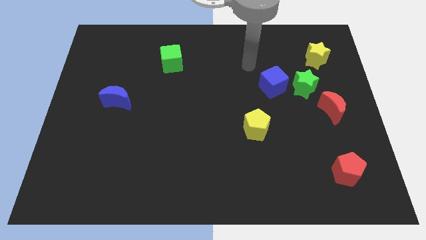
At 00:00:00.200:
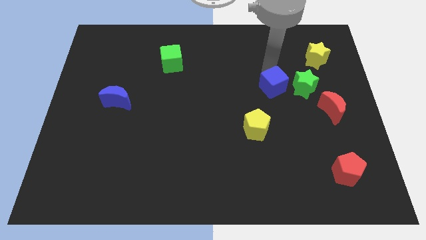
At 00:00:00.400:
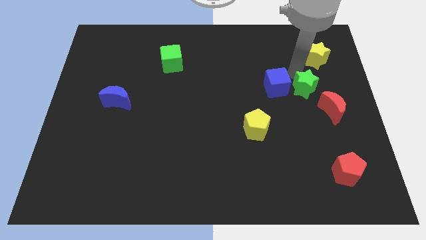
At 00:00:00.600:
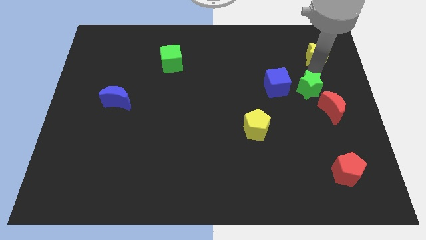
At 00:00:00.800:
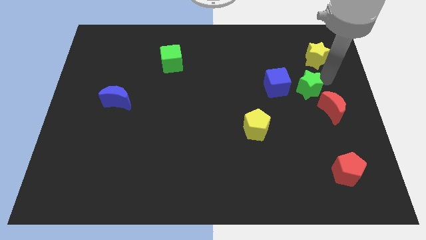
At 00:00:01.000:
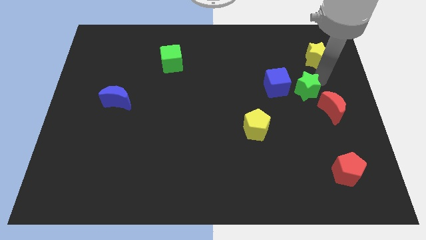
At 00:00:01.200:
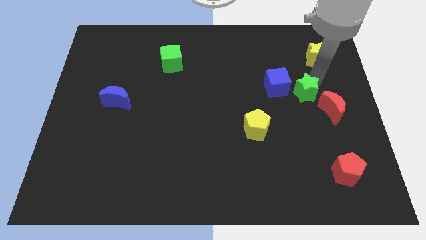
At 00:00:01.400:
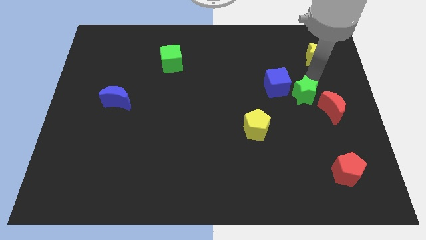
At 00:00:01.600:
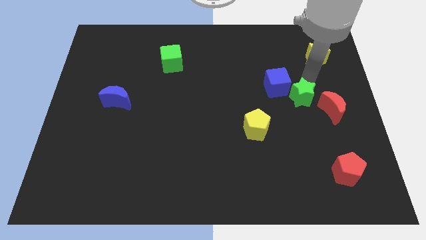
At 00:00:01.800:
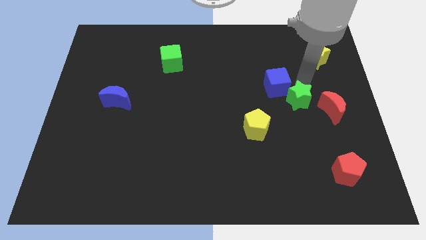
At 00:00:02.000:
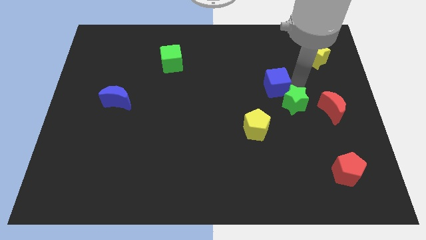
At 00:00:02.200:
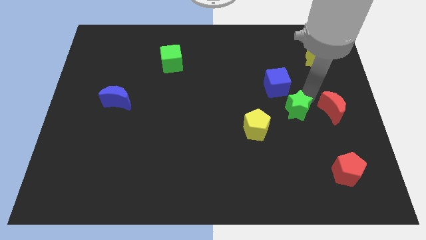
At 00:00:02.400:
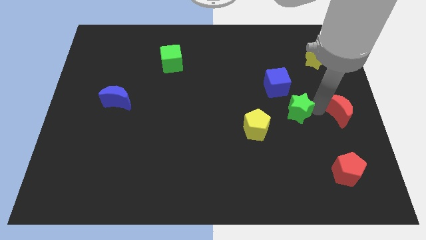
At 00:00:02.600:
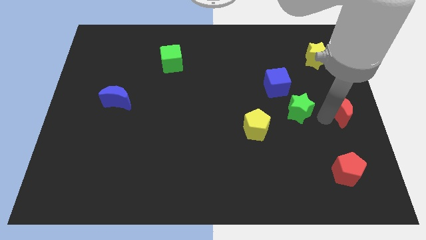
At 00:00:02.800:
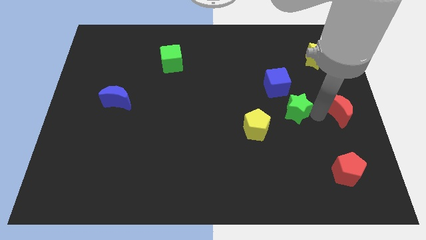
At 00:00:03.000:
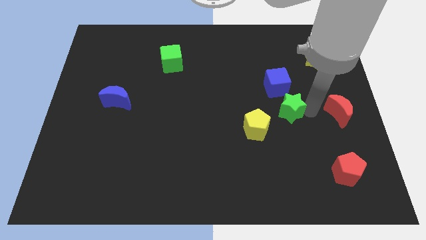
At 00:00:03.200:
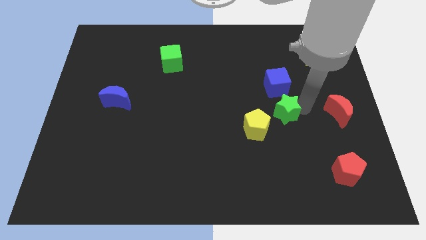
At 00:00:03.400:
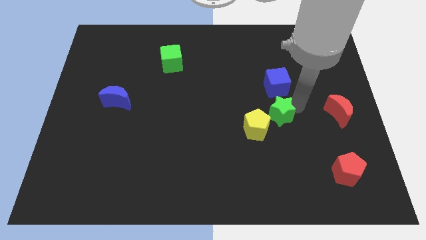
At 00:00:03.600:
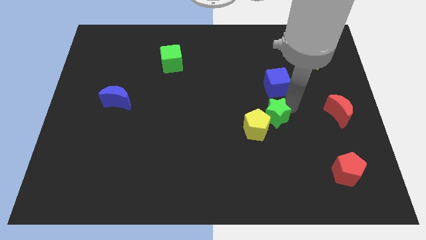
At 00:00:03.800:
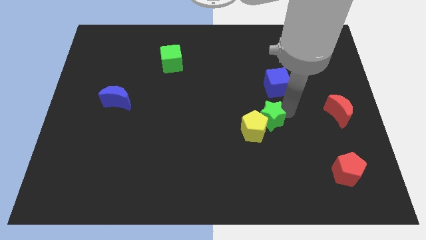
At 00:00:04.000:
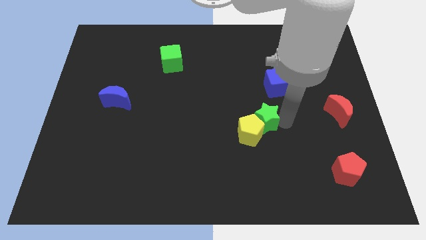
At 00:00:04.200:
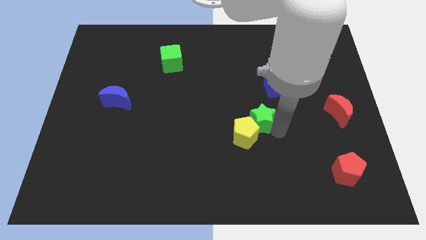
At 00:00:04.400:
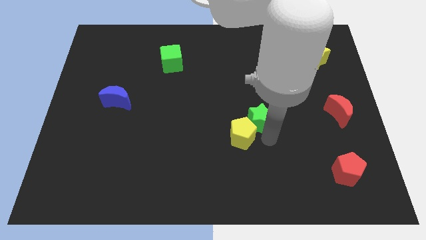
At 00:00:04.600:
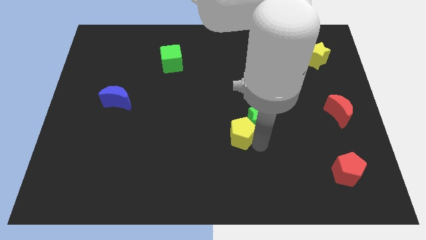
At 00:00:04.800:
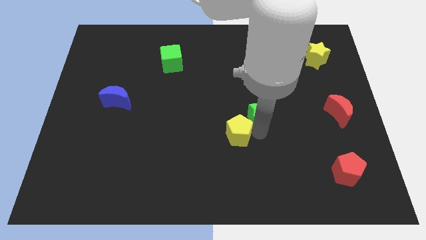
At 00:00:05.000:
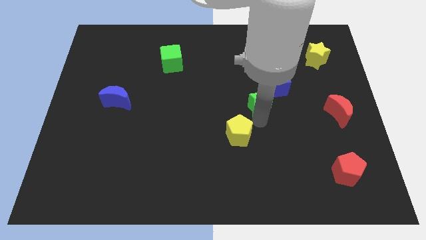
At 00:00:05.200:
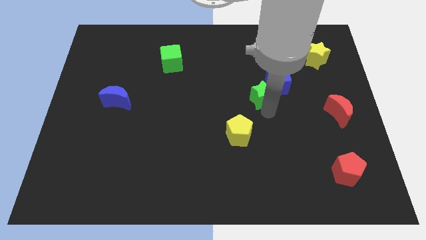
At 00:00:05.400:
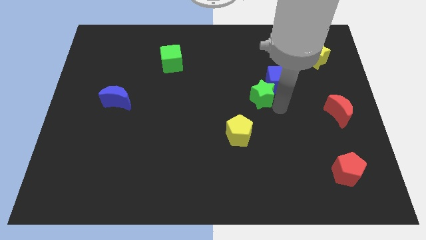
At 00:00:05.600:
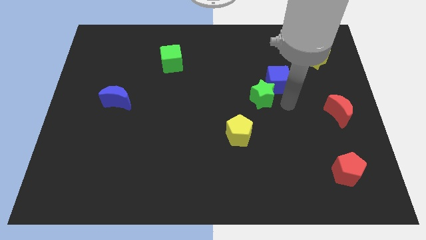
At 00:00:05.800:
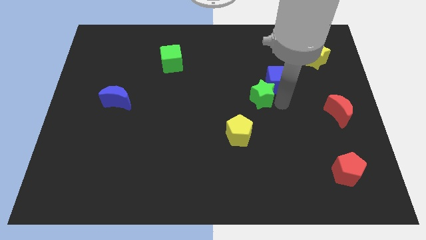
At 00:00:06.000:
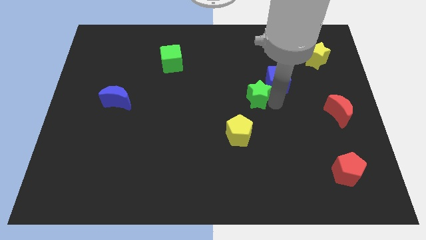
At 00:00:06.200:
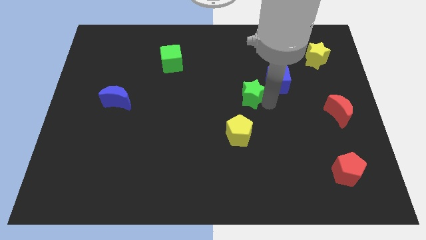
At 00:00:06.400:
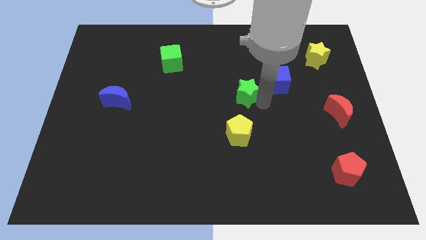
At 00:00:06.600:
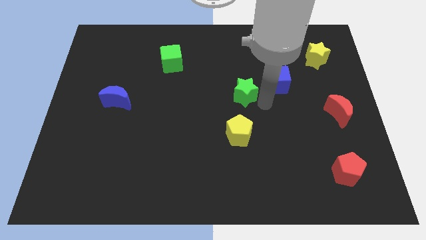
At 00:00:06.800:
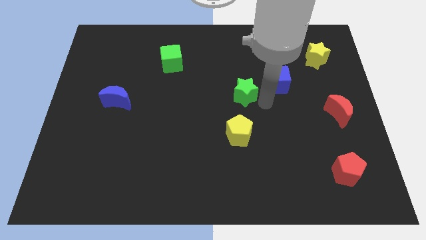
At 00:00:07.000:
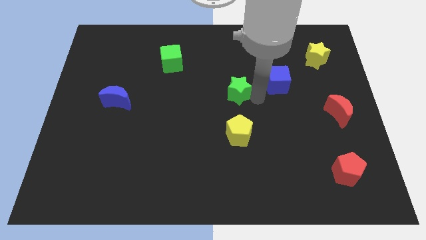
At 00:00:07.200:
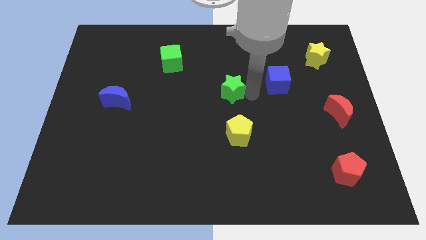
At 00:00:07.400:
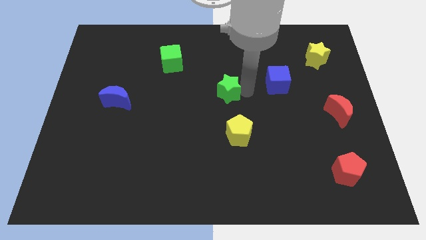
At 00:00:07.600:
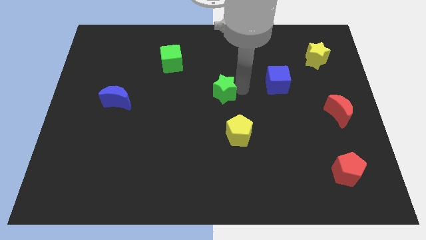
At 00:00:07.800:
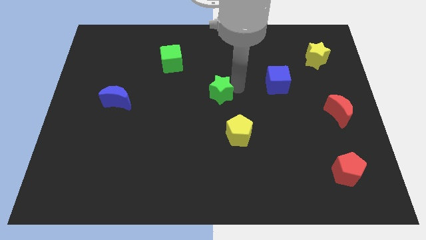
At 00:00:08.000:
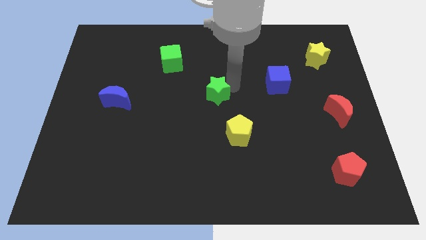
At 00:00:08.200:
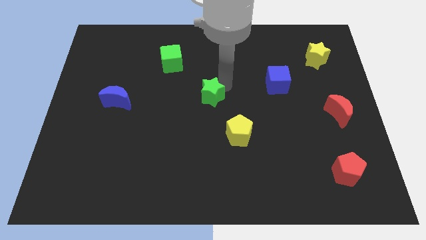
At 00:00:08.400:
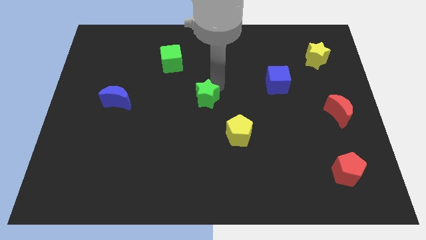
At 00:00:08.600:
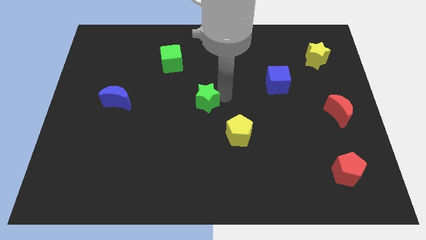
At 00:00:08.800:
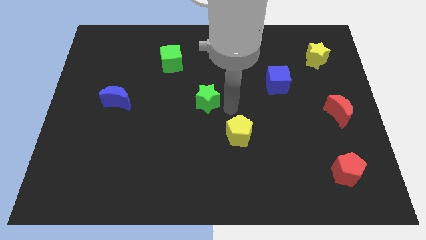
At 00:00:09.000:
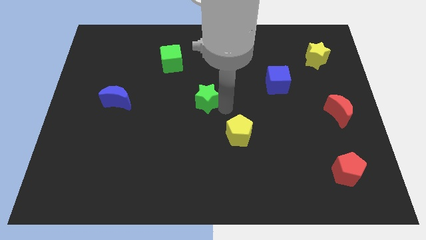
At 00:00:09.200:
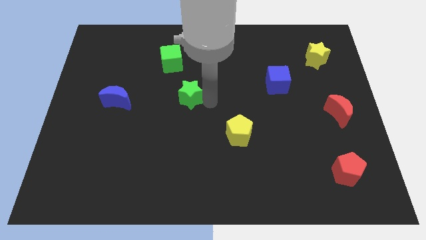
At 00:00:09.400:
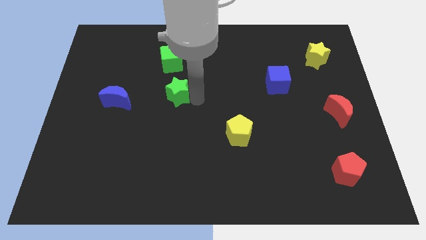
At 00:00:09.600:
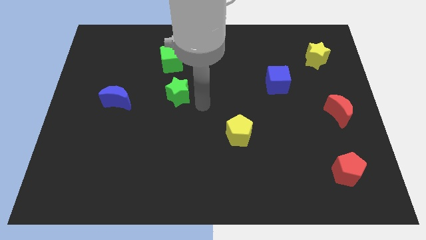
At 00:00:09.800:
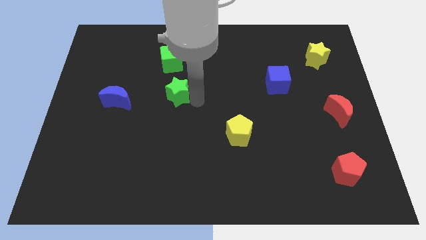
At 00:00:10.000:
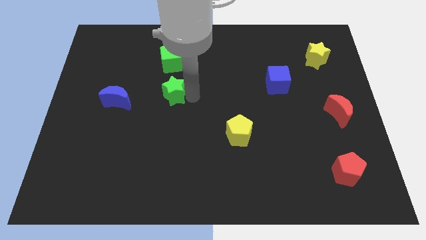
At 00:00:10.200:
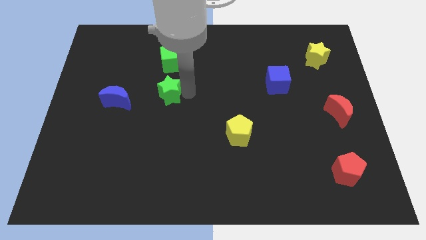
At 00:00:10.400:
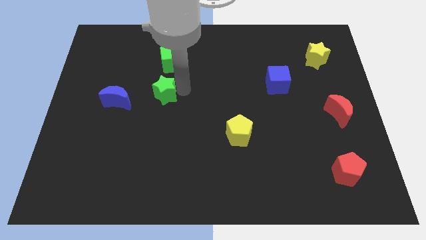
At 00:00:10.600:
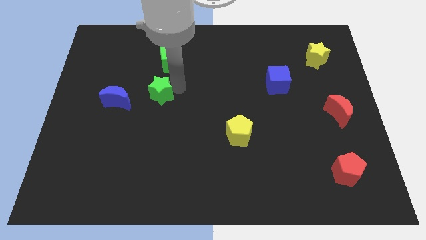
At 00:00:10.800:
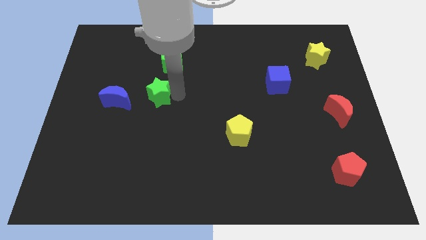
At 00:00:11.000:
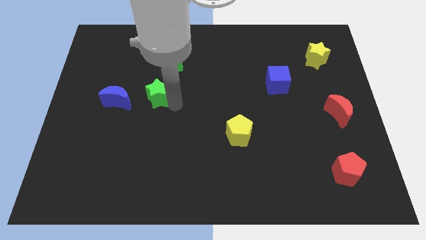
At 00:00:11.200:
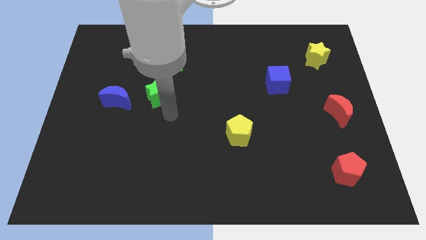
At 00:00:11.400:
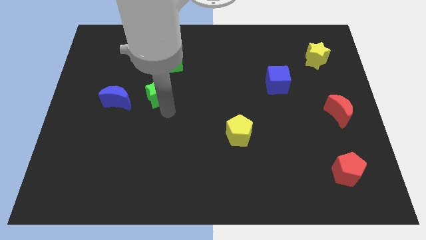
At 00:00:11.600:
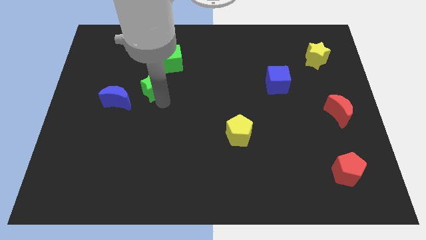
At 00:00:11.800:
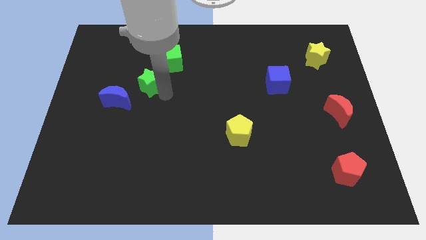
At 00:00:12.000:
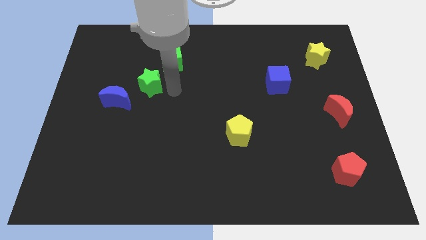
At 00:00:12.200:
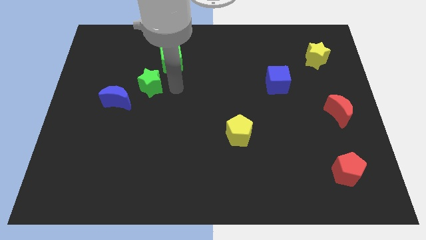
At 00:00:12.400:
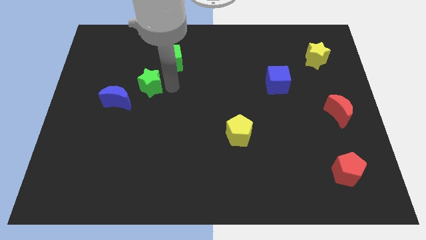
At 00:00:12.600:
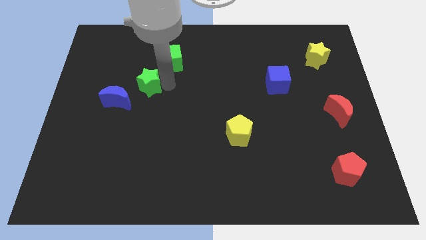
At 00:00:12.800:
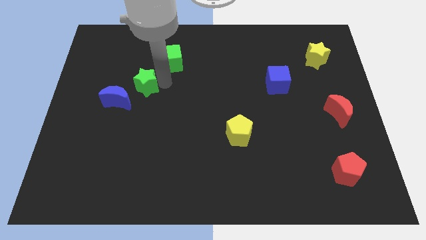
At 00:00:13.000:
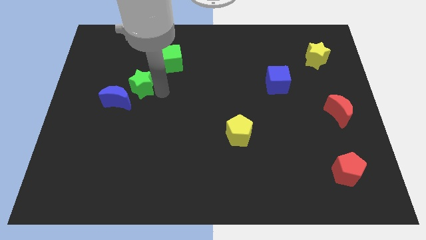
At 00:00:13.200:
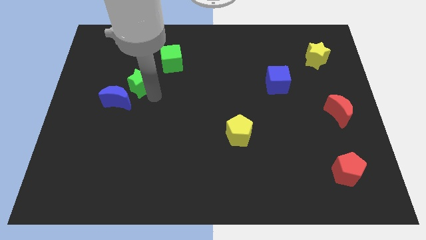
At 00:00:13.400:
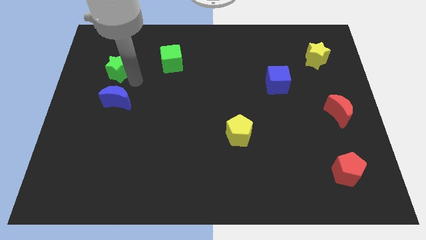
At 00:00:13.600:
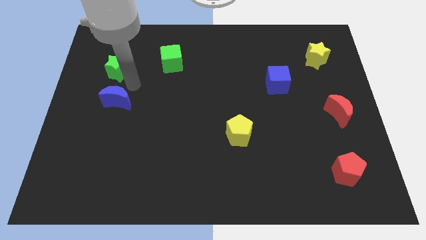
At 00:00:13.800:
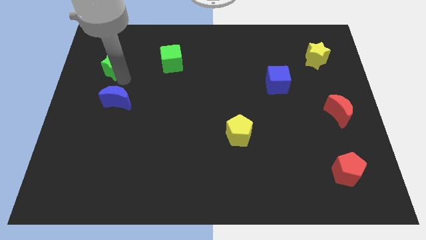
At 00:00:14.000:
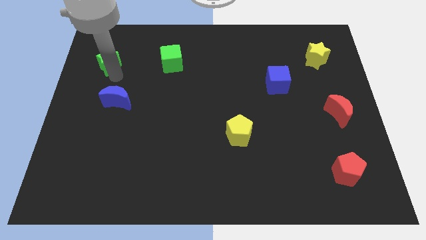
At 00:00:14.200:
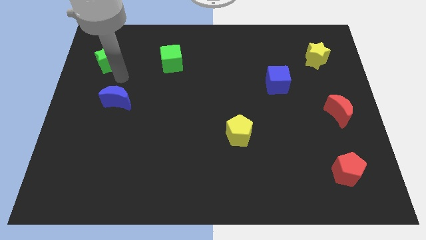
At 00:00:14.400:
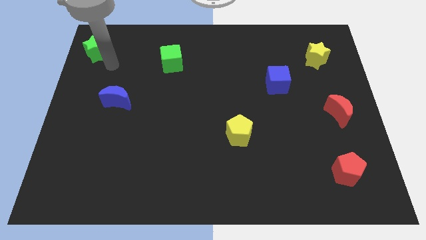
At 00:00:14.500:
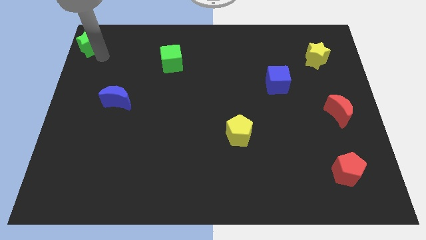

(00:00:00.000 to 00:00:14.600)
put the green star to the top left
